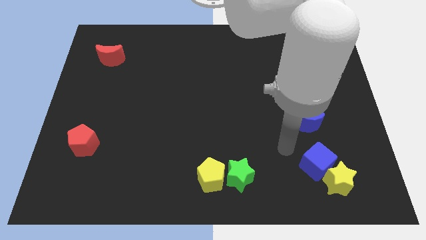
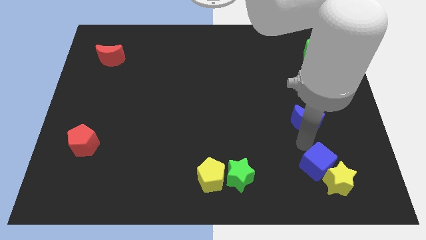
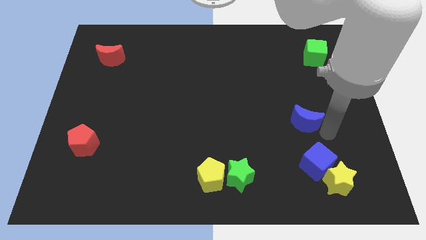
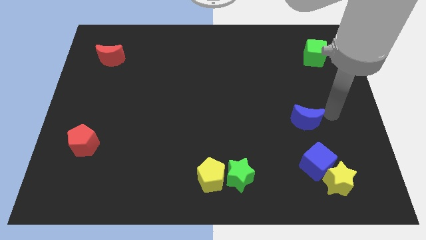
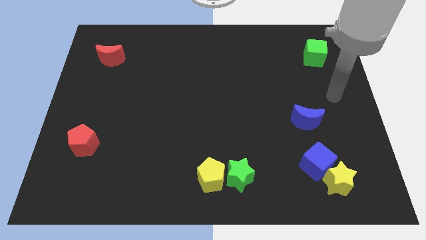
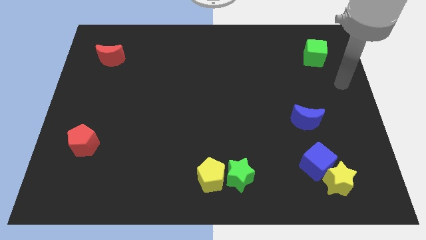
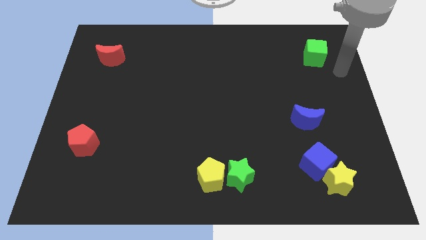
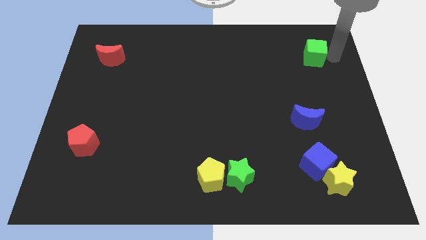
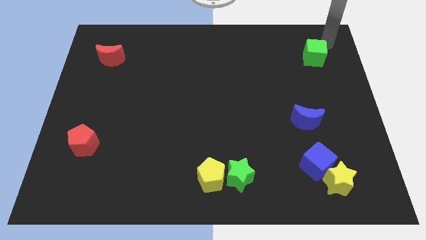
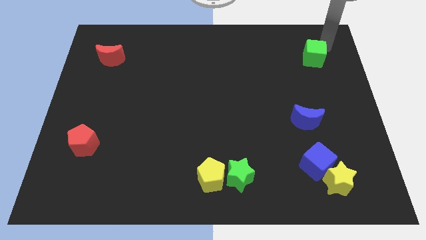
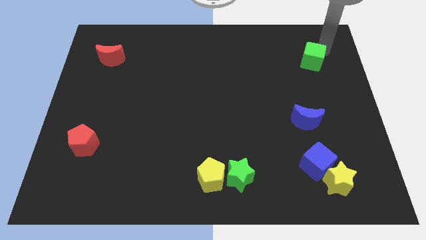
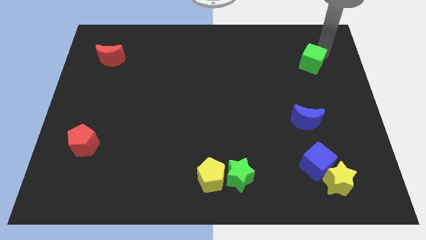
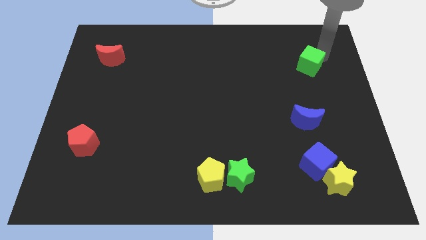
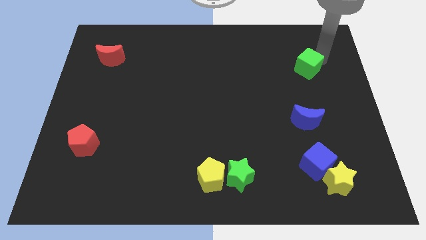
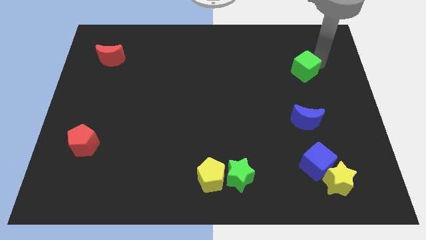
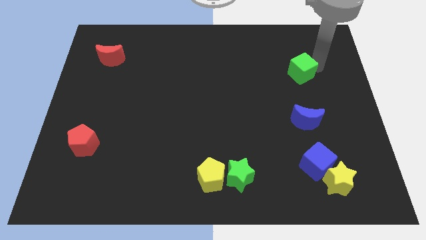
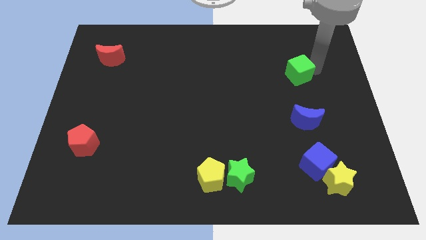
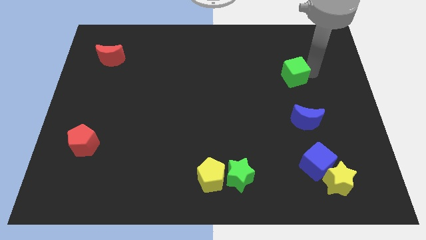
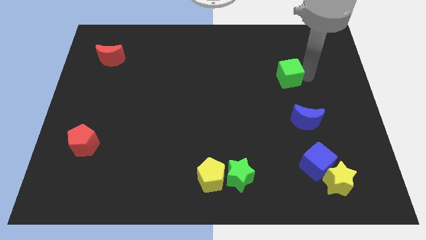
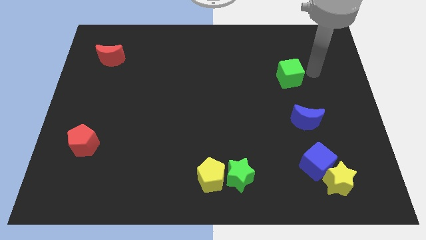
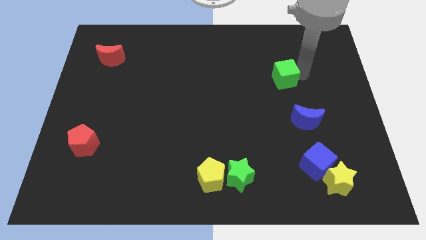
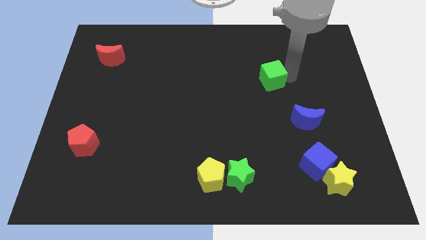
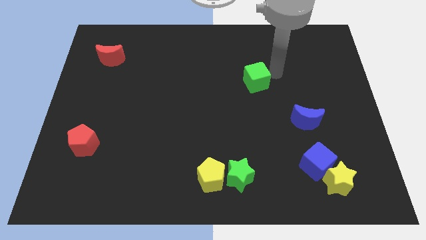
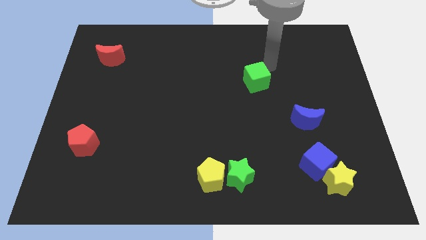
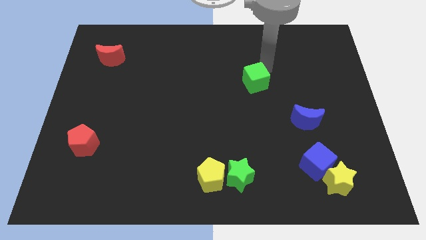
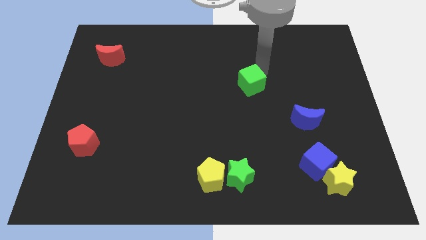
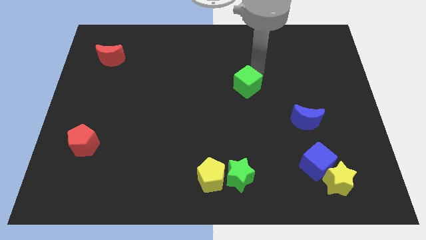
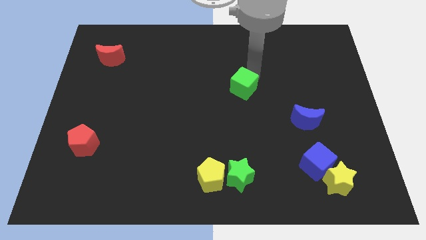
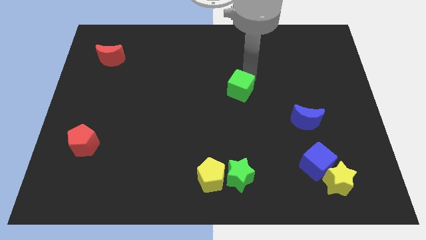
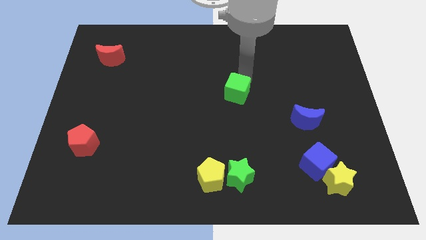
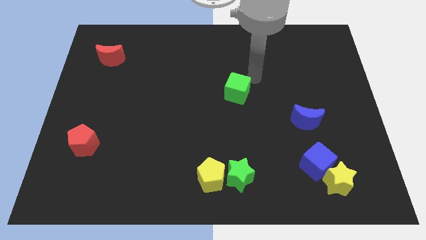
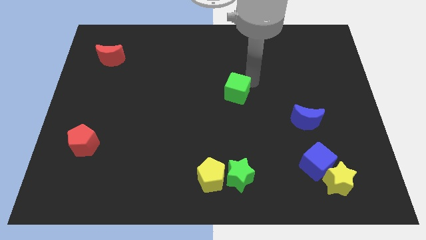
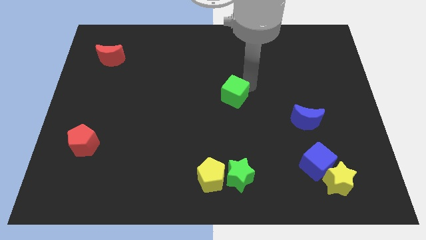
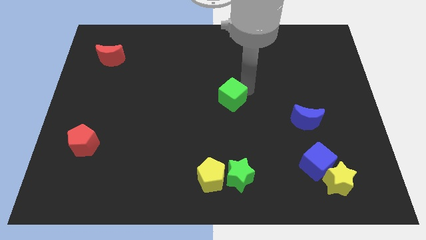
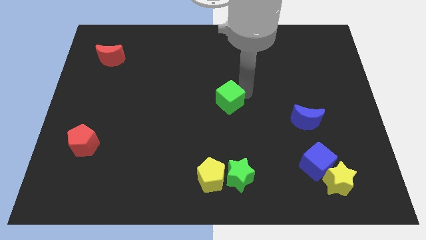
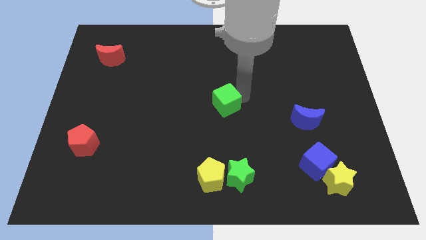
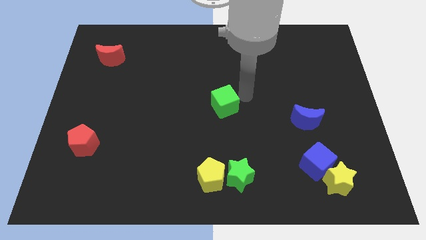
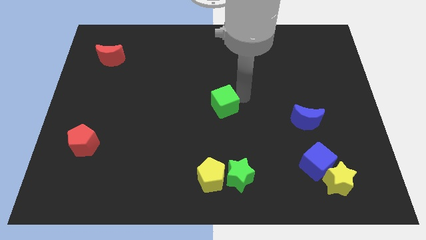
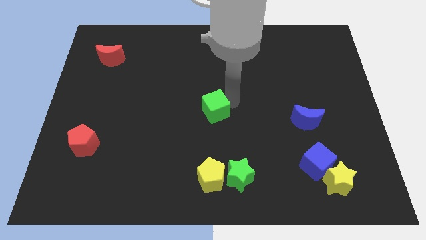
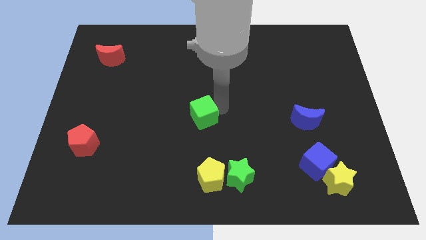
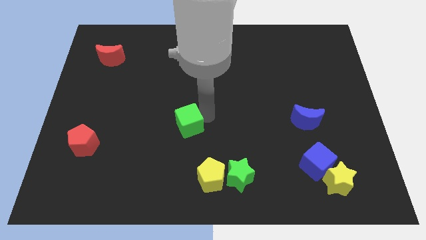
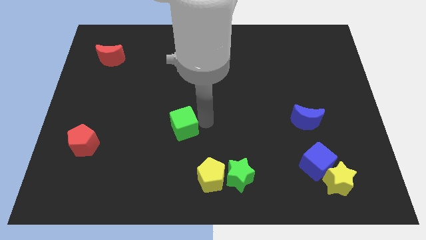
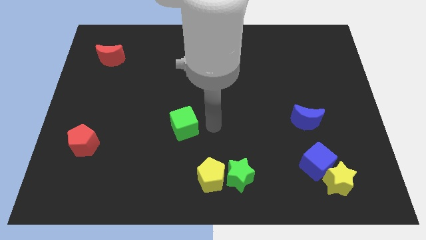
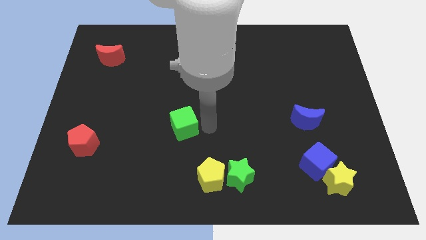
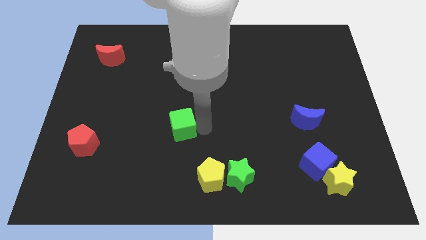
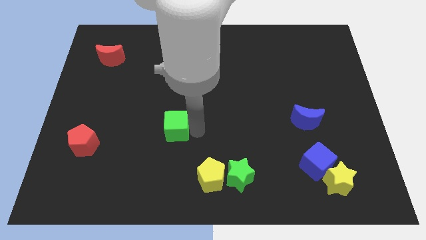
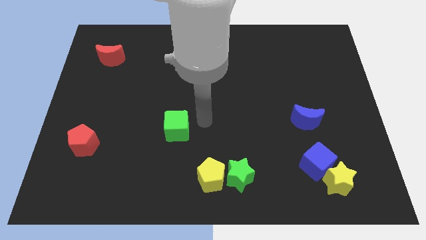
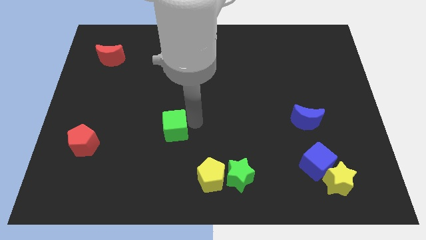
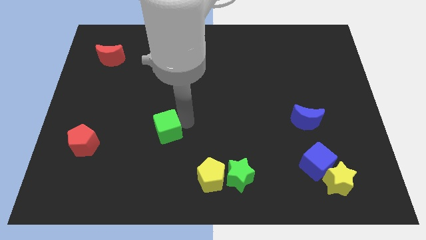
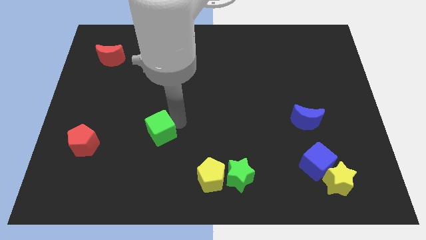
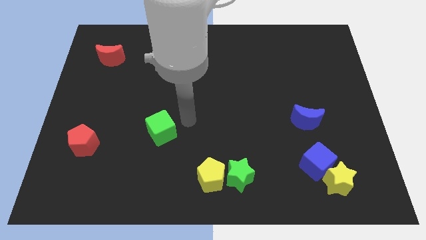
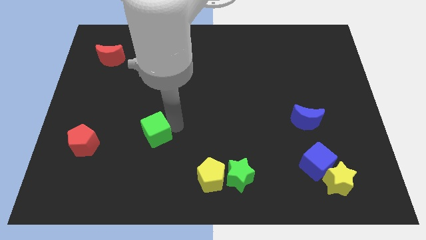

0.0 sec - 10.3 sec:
push the green cube to the right of the red pentagon

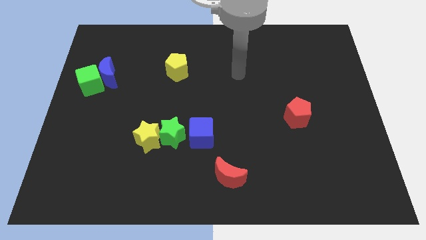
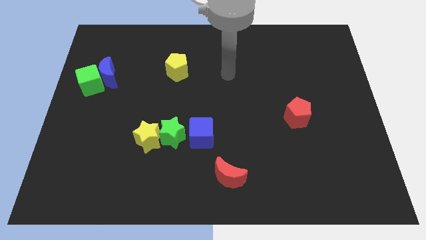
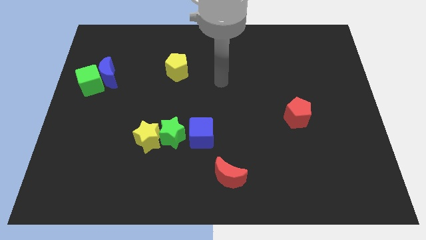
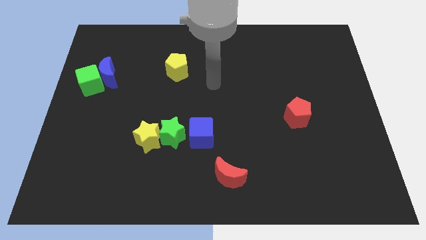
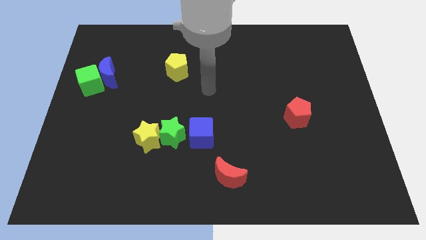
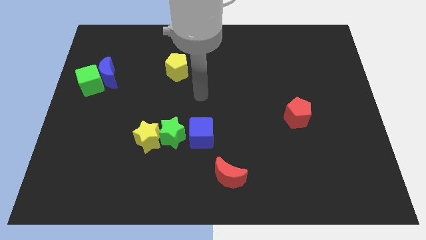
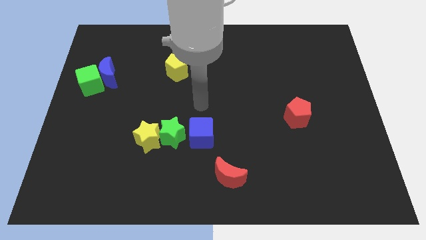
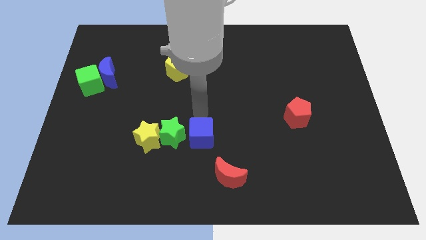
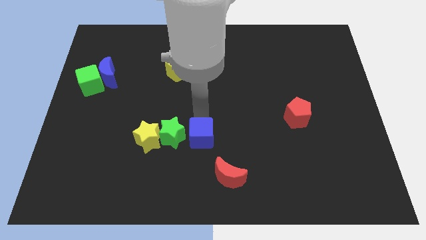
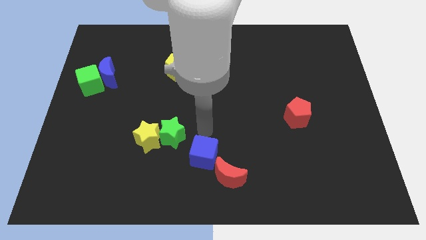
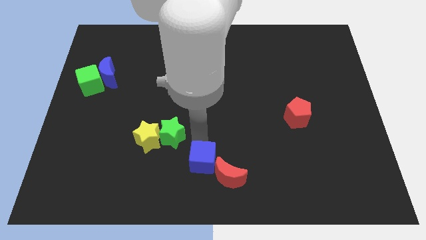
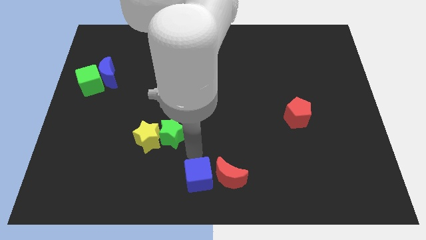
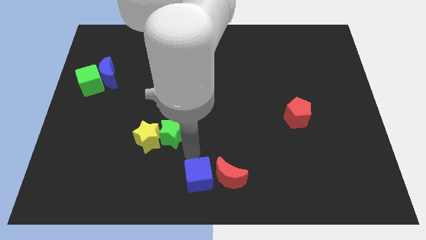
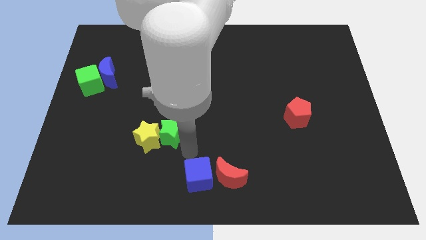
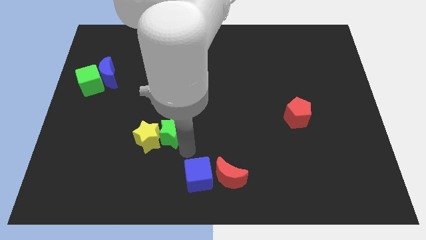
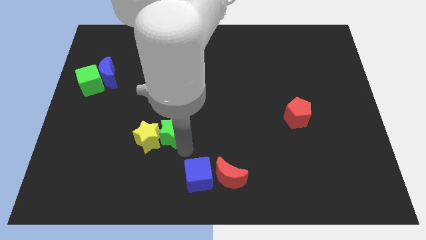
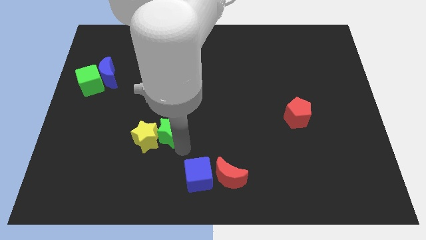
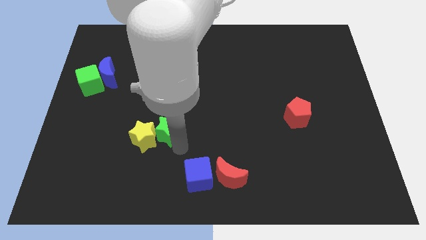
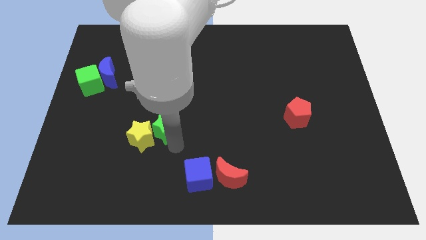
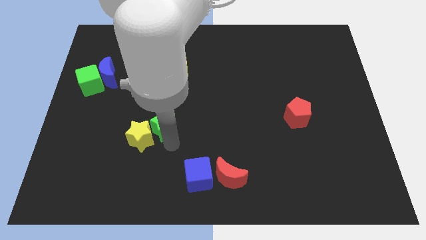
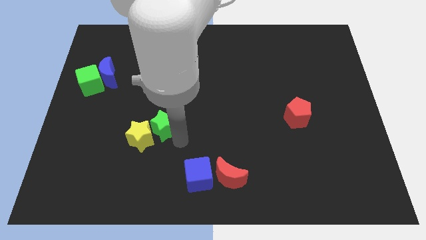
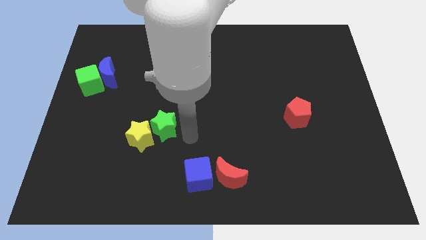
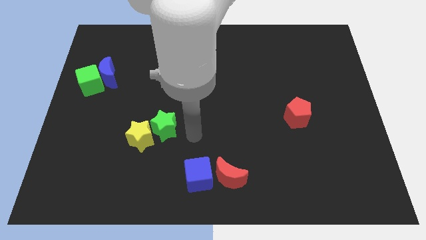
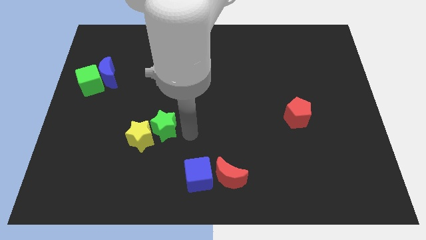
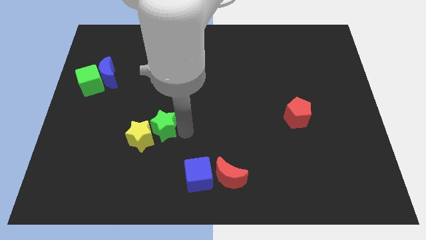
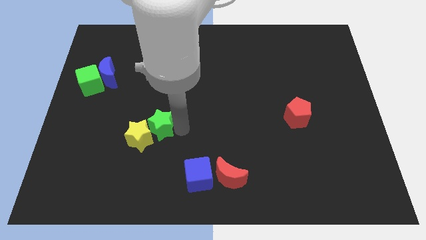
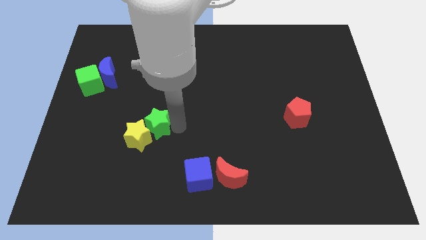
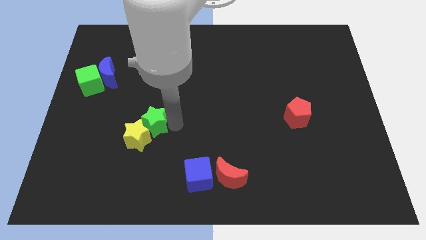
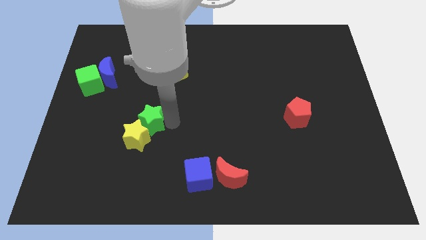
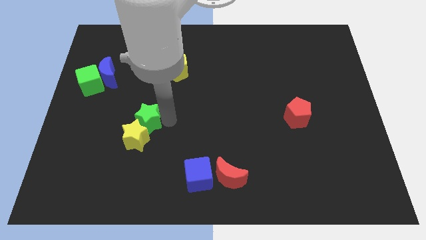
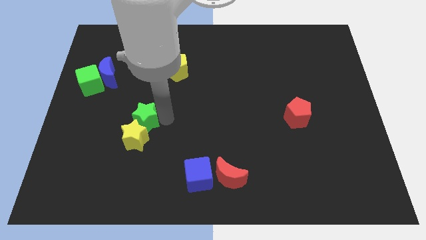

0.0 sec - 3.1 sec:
push the green star diagonally up and to the left of the yellow star
